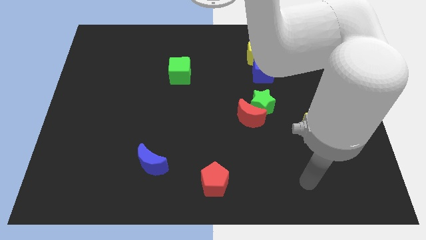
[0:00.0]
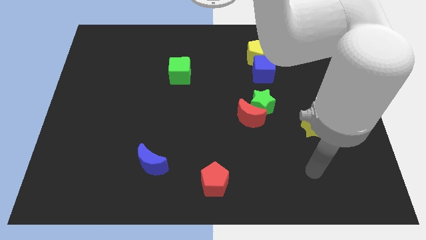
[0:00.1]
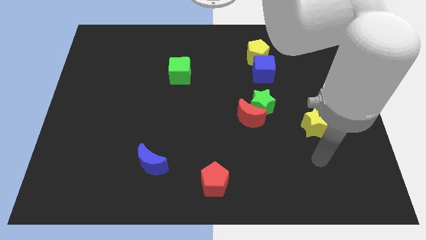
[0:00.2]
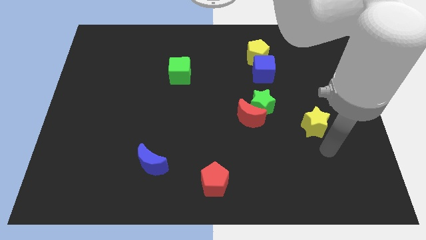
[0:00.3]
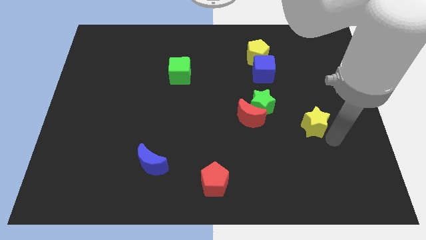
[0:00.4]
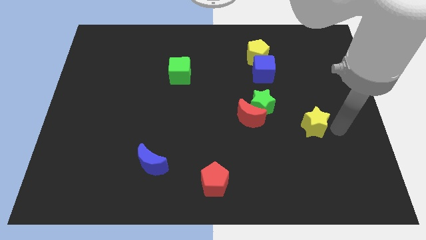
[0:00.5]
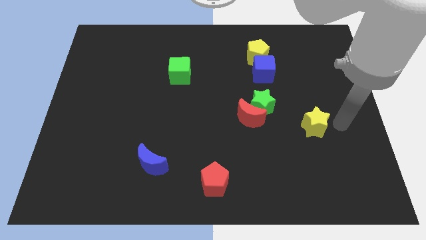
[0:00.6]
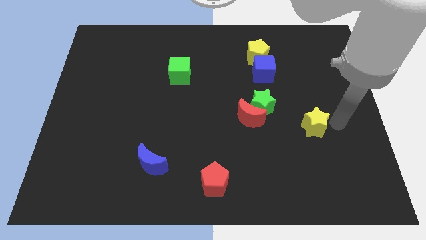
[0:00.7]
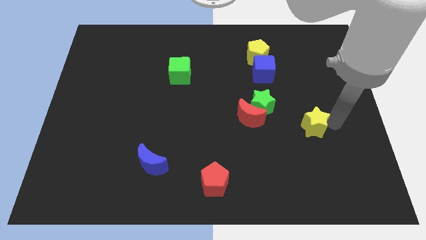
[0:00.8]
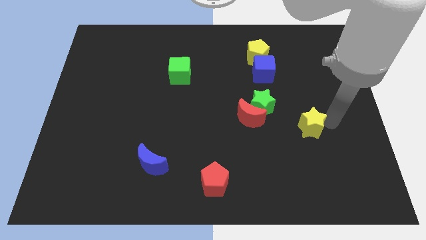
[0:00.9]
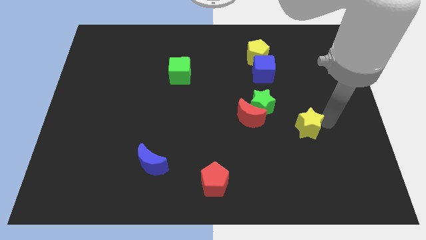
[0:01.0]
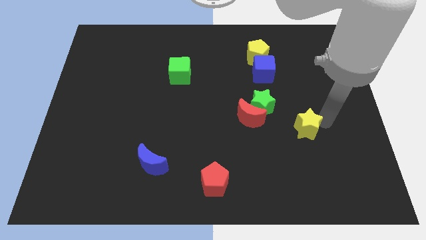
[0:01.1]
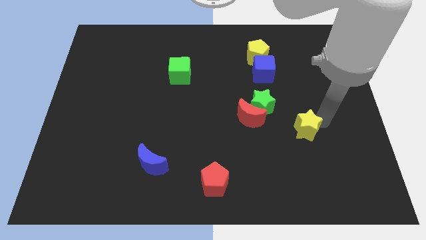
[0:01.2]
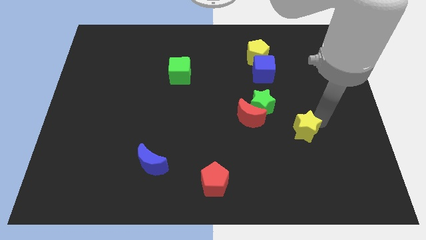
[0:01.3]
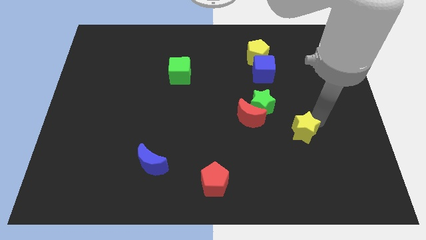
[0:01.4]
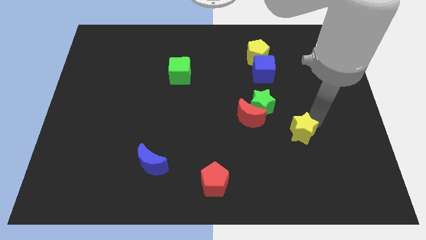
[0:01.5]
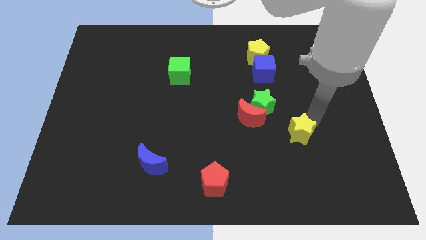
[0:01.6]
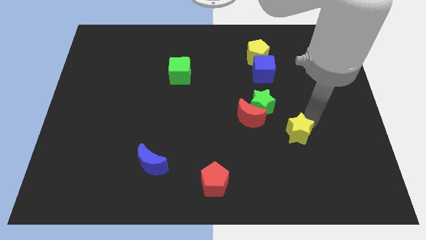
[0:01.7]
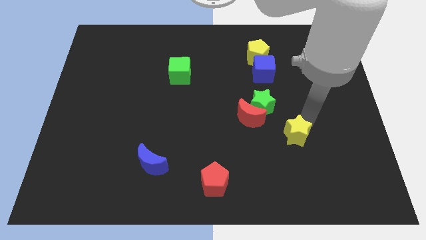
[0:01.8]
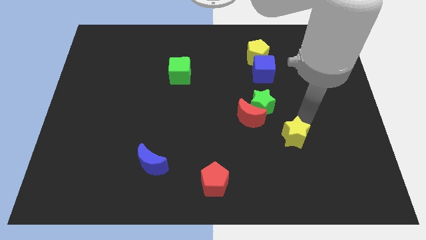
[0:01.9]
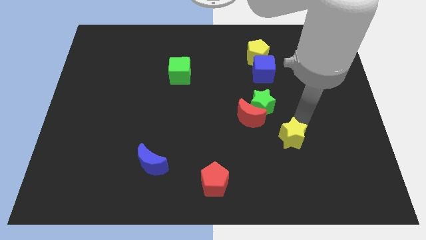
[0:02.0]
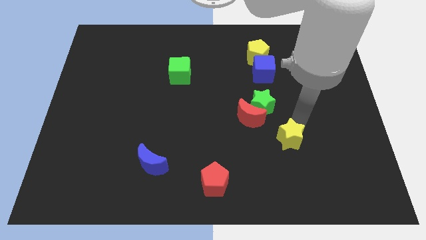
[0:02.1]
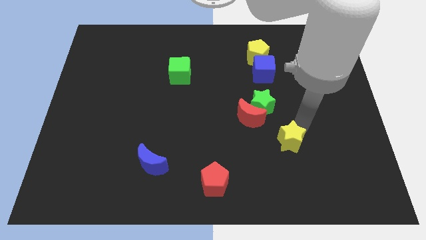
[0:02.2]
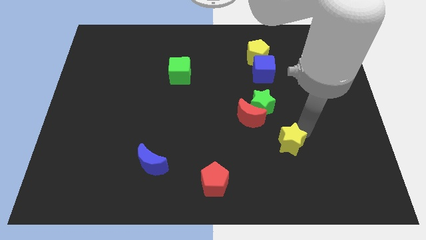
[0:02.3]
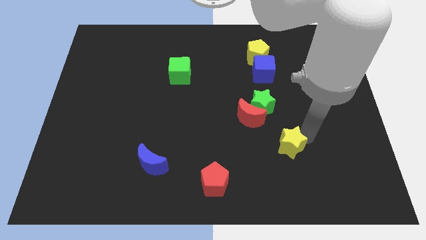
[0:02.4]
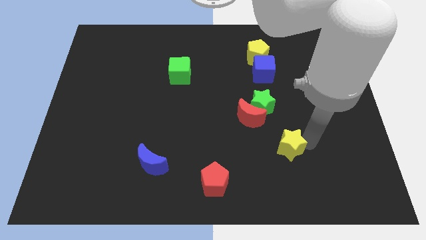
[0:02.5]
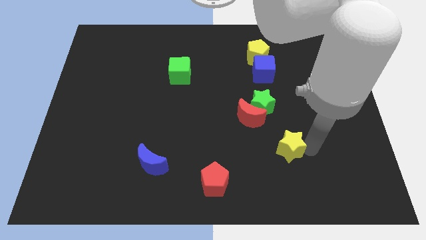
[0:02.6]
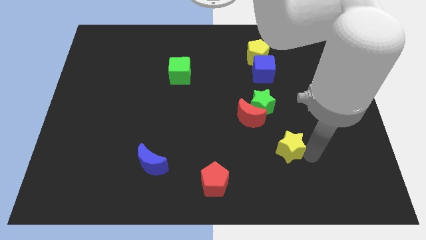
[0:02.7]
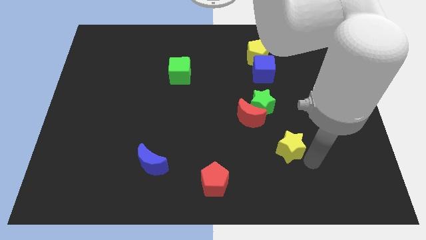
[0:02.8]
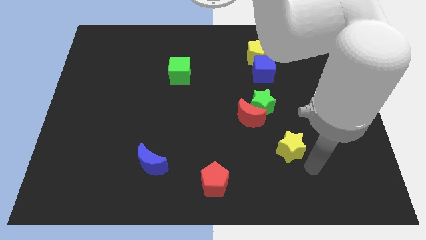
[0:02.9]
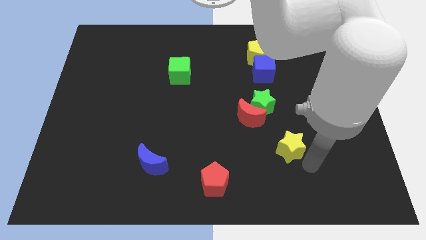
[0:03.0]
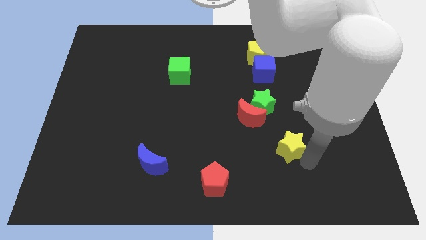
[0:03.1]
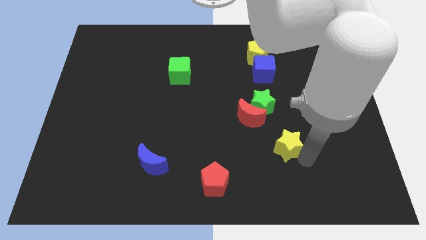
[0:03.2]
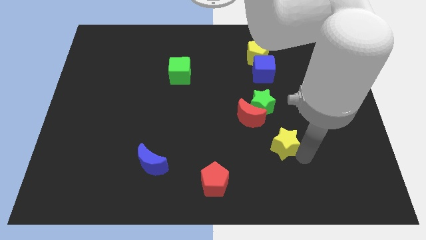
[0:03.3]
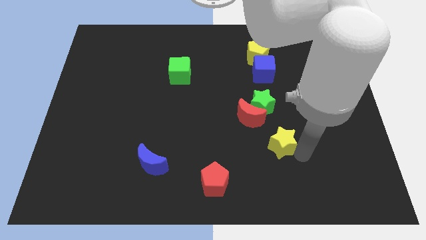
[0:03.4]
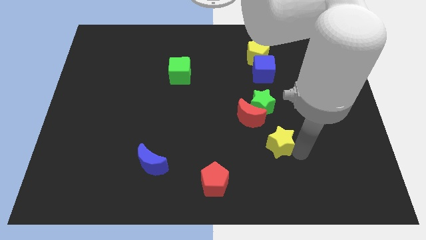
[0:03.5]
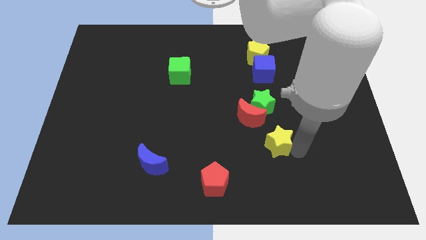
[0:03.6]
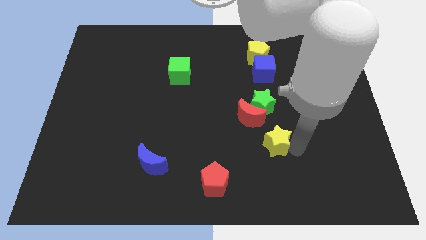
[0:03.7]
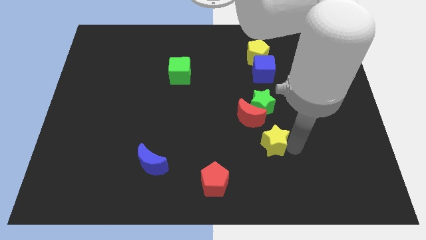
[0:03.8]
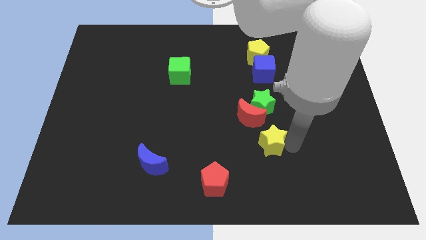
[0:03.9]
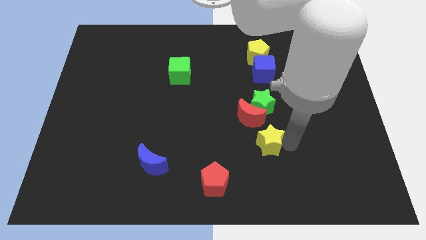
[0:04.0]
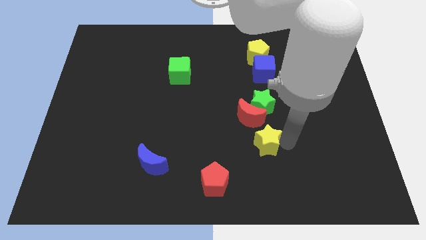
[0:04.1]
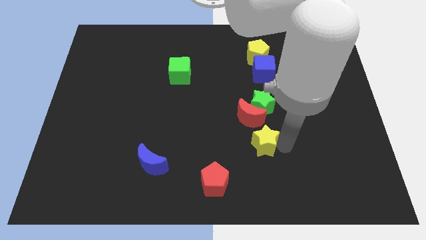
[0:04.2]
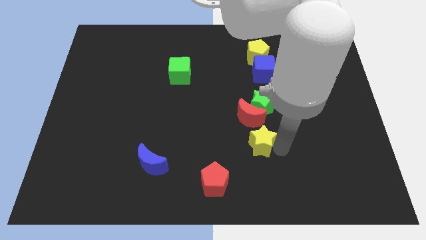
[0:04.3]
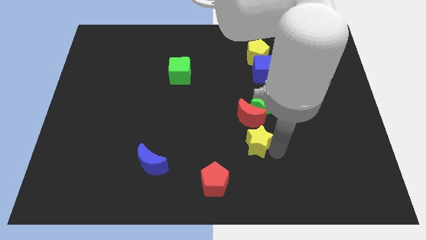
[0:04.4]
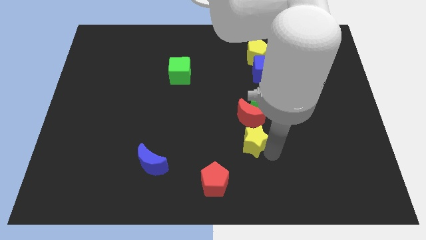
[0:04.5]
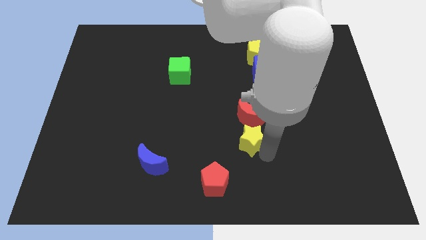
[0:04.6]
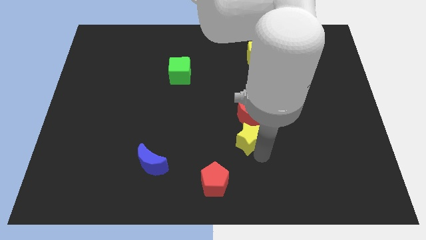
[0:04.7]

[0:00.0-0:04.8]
push the yellow star diagonally down and to the left of the green star

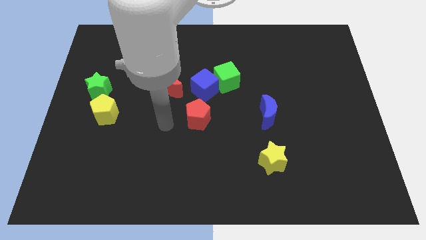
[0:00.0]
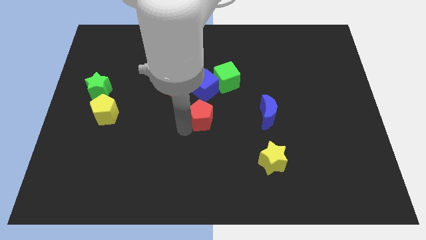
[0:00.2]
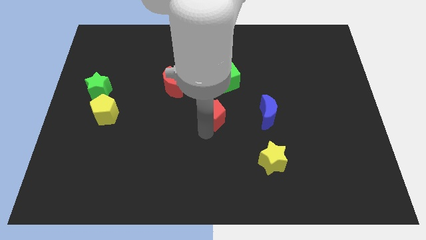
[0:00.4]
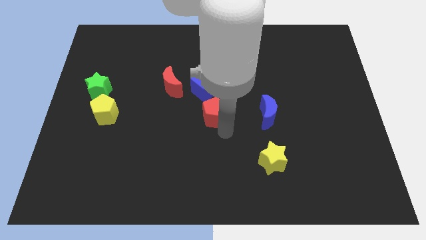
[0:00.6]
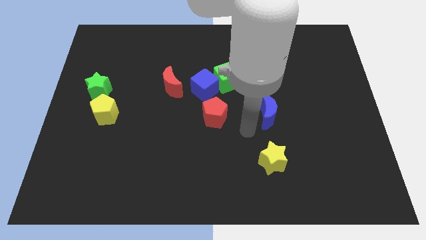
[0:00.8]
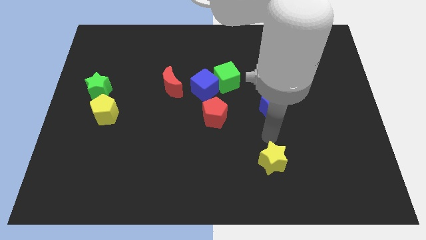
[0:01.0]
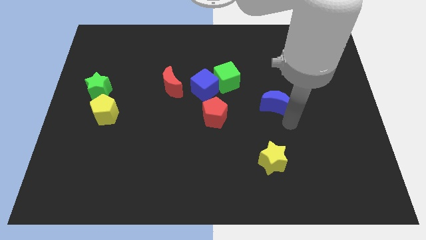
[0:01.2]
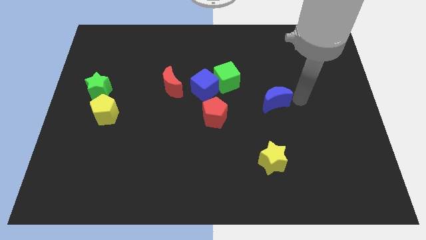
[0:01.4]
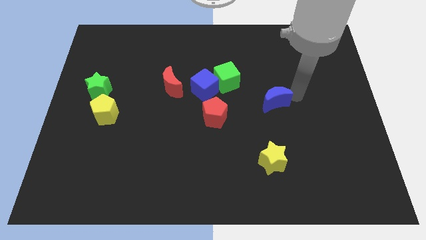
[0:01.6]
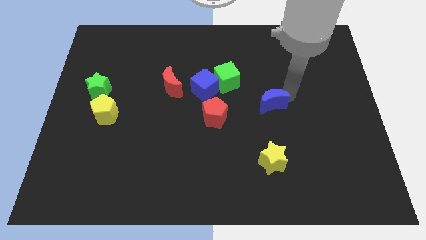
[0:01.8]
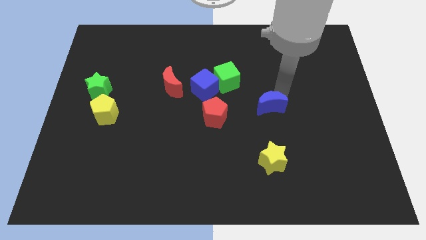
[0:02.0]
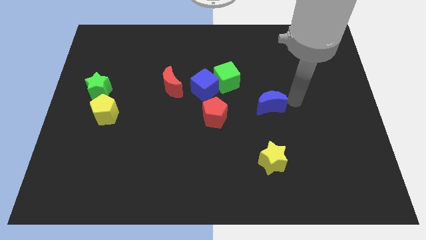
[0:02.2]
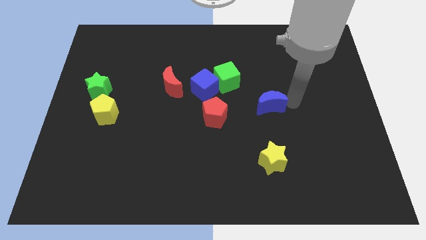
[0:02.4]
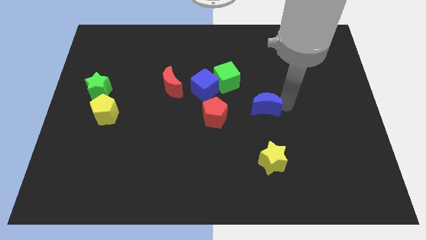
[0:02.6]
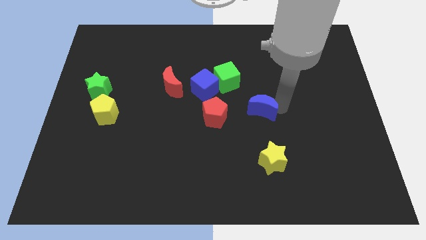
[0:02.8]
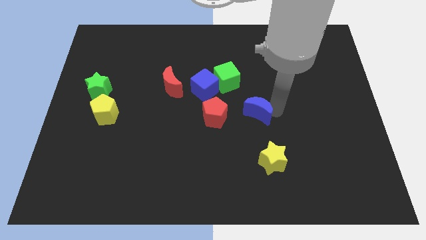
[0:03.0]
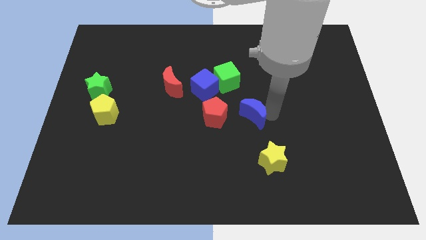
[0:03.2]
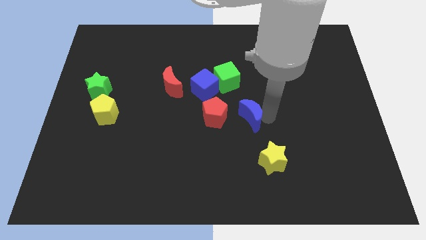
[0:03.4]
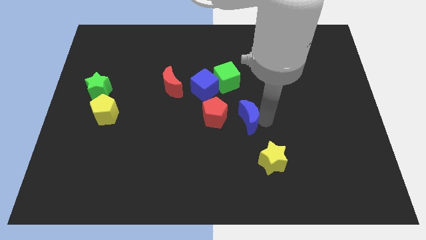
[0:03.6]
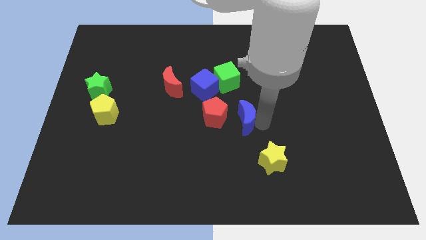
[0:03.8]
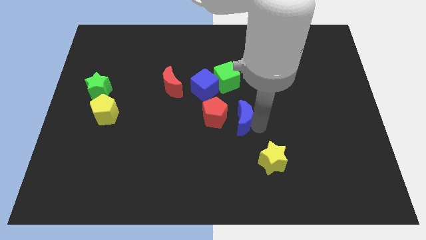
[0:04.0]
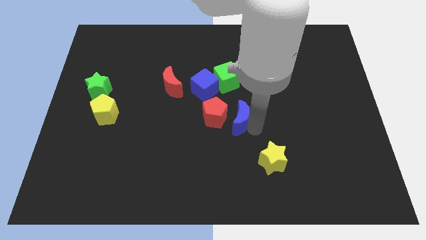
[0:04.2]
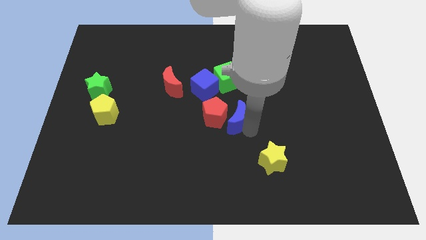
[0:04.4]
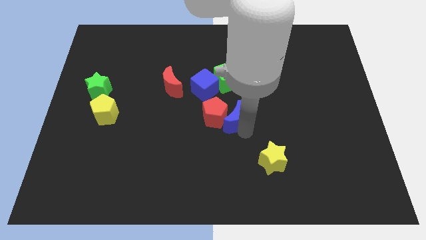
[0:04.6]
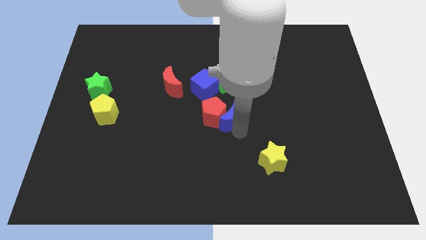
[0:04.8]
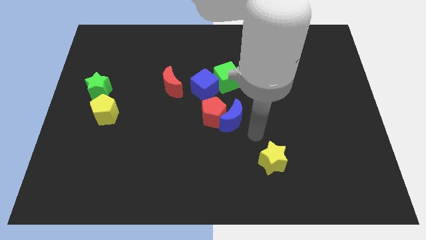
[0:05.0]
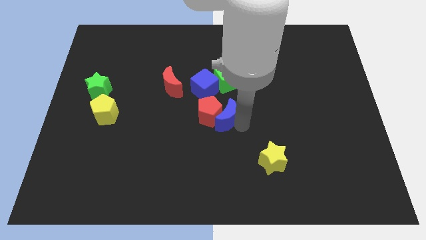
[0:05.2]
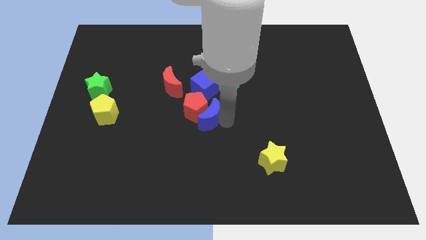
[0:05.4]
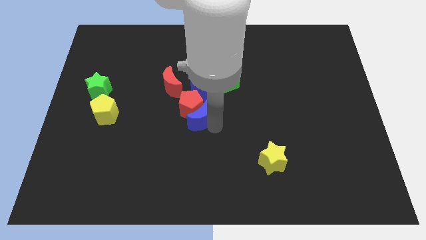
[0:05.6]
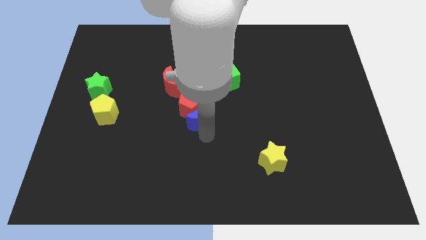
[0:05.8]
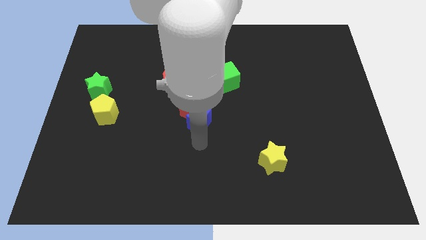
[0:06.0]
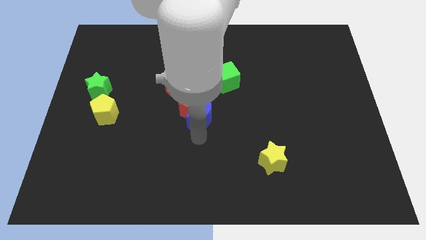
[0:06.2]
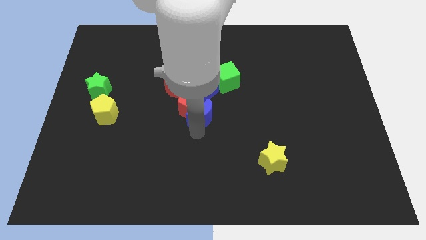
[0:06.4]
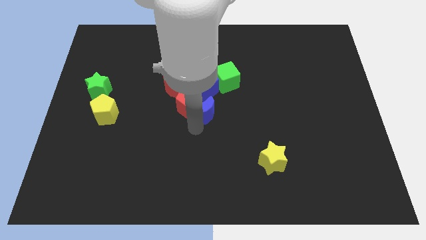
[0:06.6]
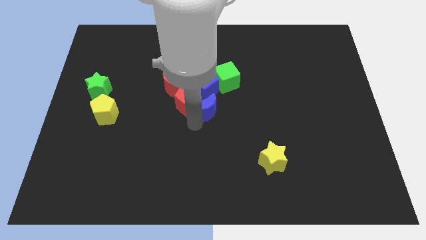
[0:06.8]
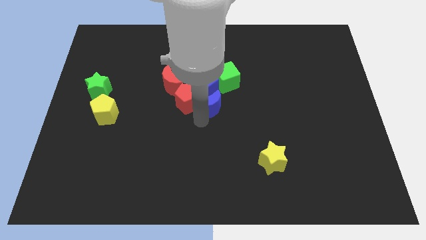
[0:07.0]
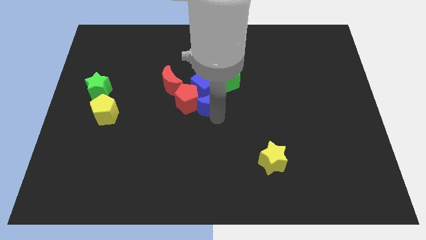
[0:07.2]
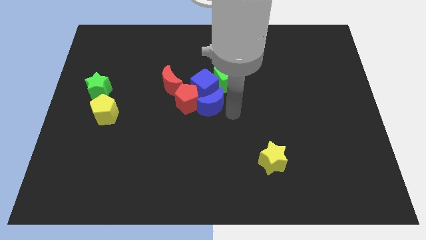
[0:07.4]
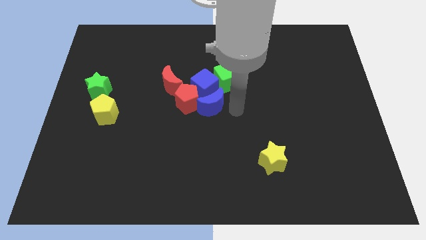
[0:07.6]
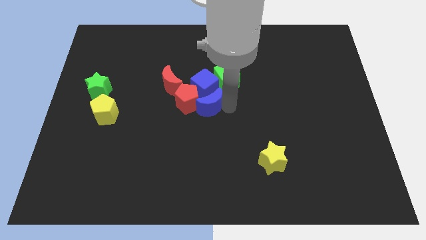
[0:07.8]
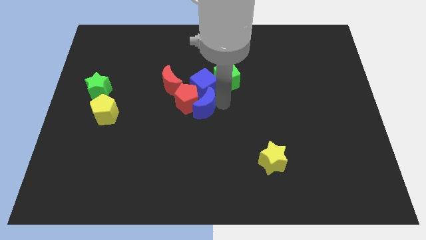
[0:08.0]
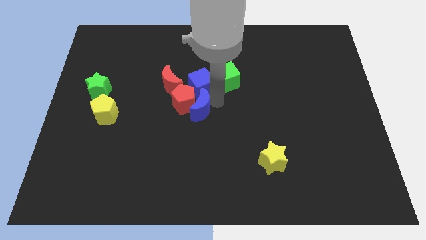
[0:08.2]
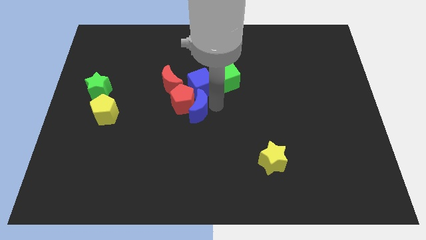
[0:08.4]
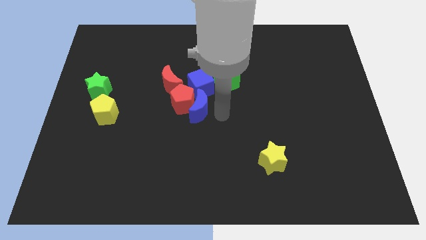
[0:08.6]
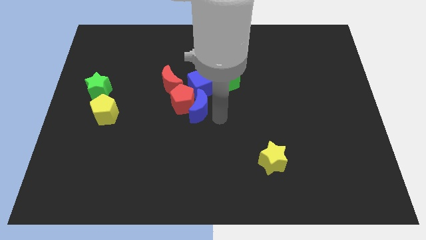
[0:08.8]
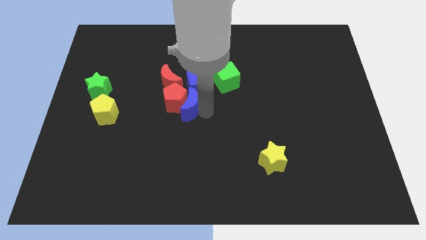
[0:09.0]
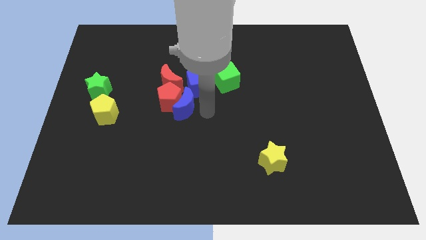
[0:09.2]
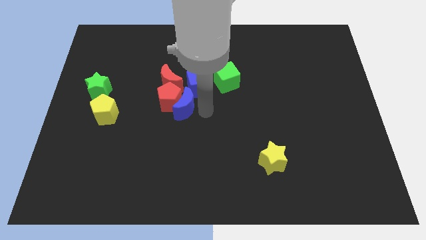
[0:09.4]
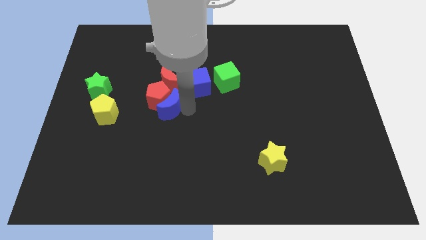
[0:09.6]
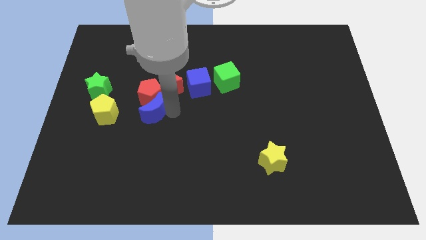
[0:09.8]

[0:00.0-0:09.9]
put the blue moon to the bottom left side of the red moon
